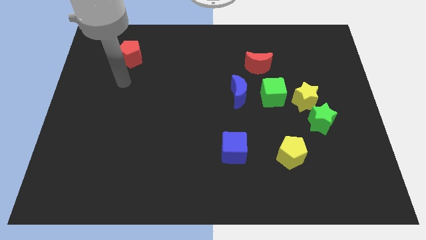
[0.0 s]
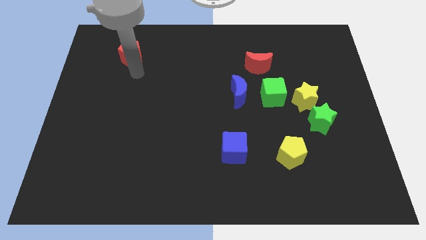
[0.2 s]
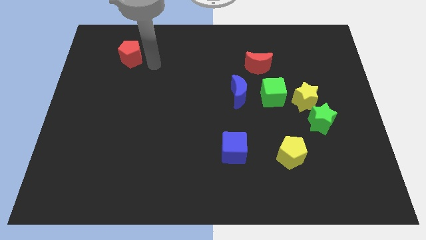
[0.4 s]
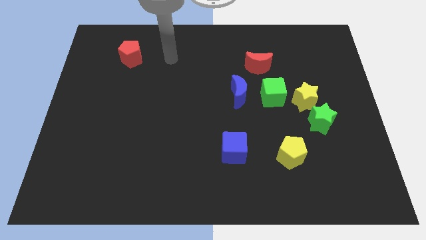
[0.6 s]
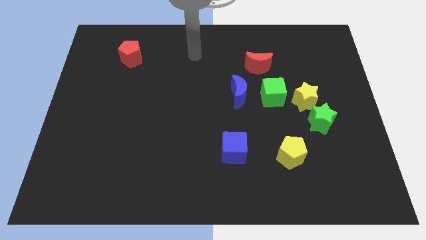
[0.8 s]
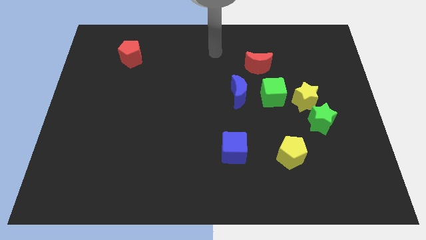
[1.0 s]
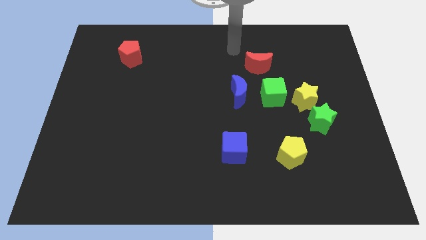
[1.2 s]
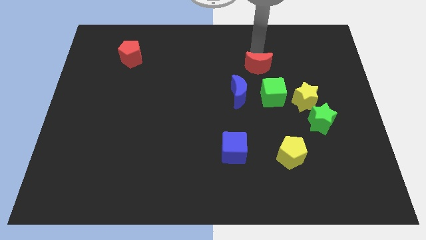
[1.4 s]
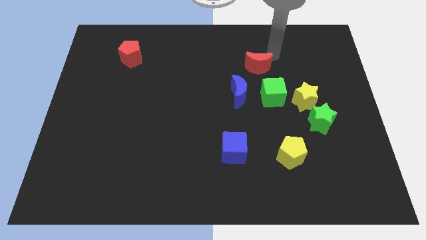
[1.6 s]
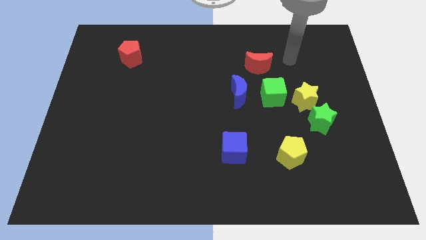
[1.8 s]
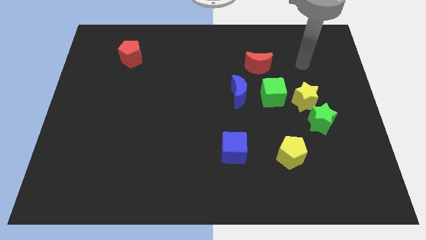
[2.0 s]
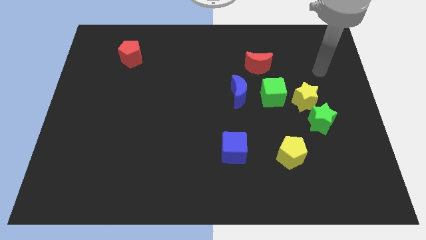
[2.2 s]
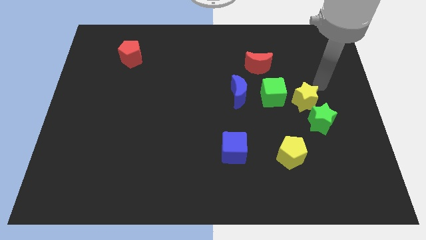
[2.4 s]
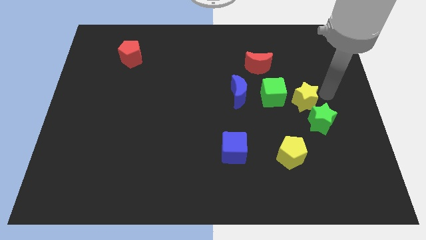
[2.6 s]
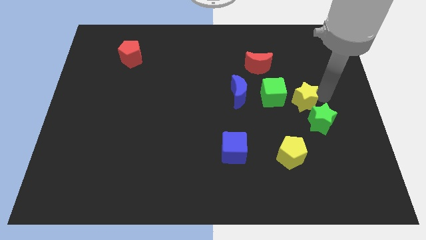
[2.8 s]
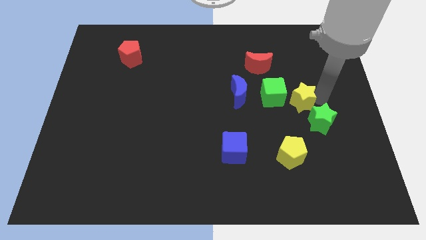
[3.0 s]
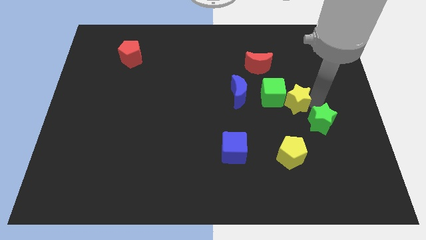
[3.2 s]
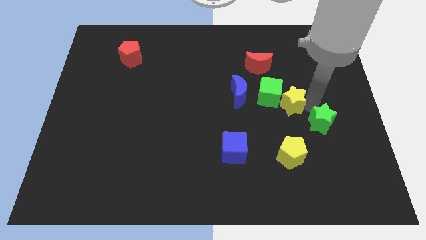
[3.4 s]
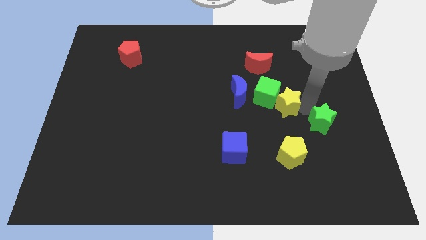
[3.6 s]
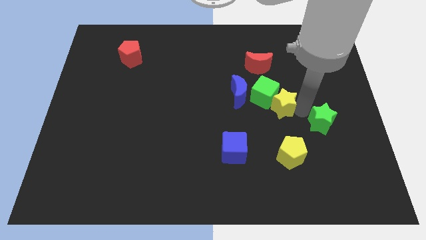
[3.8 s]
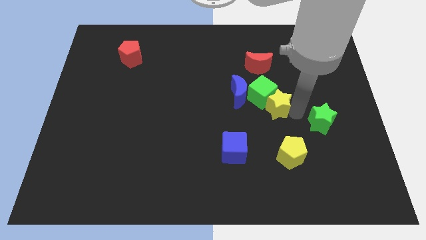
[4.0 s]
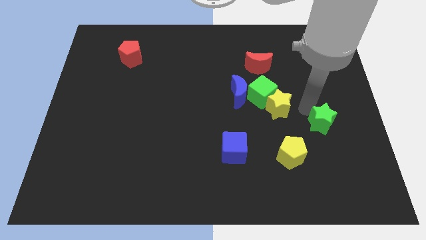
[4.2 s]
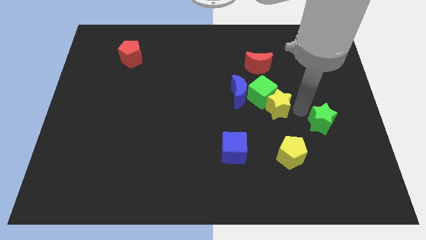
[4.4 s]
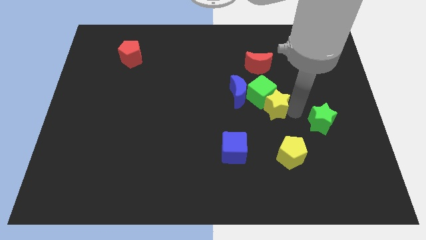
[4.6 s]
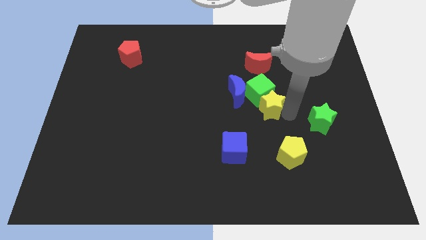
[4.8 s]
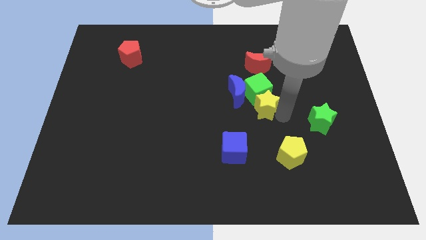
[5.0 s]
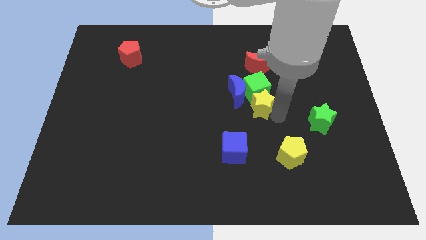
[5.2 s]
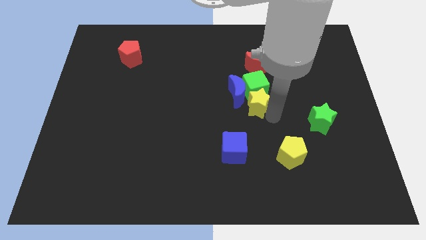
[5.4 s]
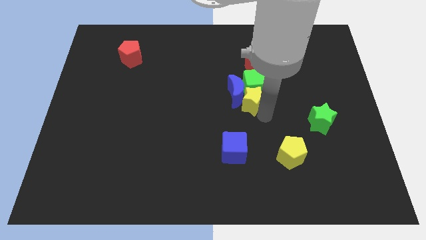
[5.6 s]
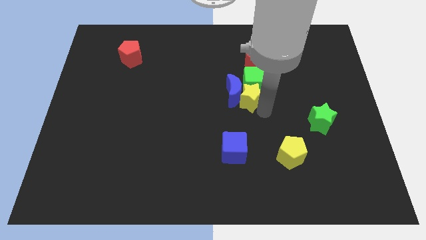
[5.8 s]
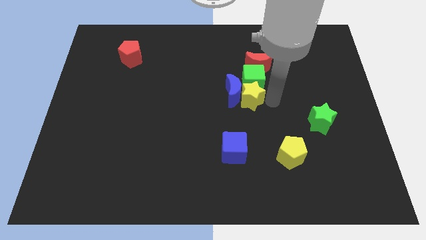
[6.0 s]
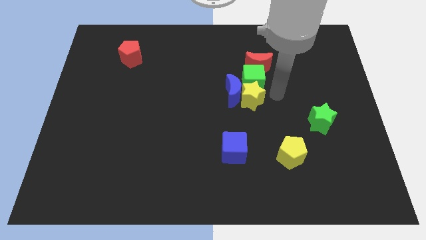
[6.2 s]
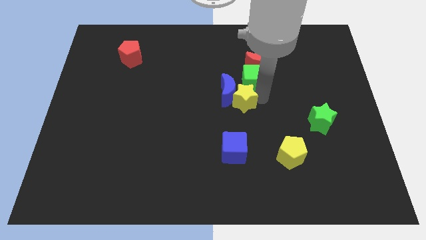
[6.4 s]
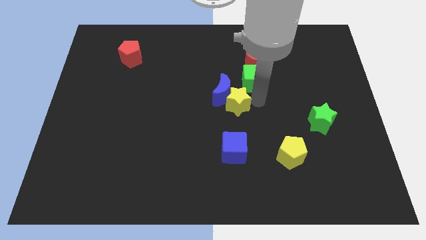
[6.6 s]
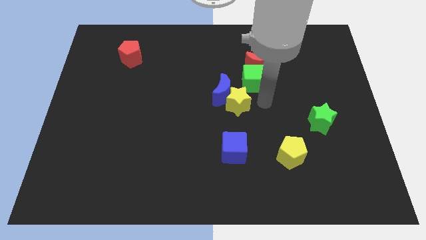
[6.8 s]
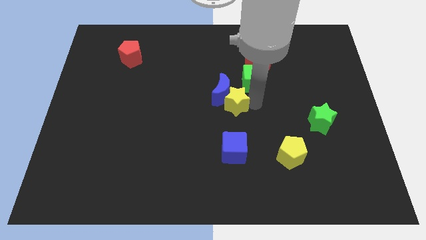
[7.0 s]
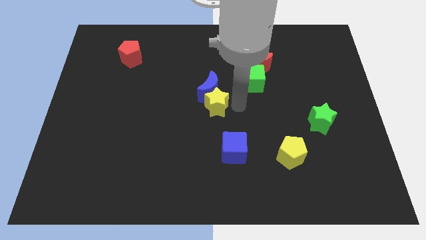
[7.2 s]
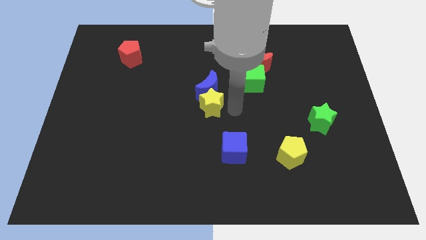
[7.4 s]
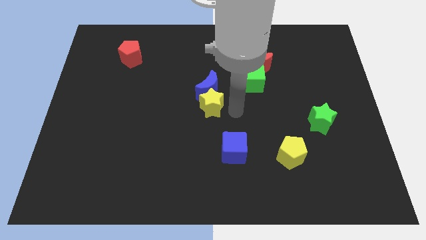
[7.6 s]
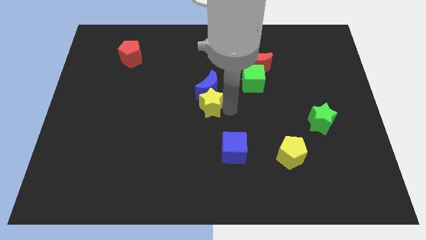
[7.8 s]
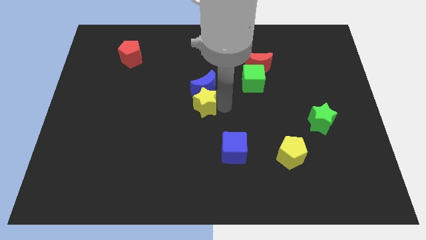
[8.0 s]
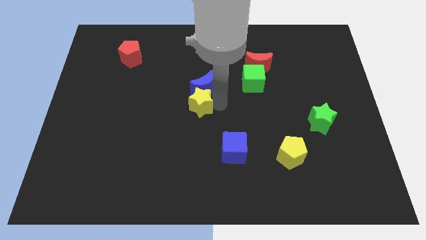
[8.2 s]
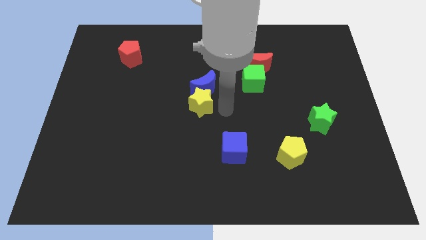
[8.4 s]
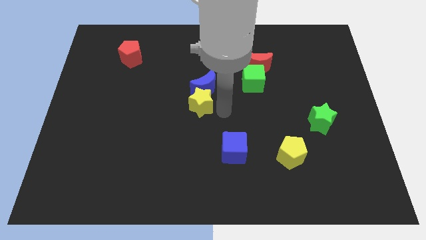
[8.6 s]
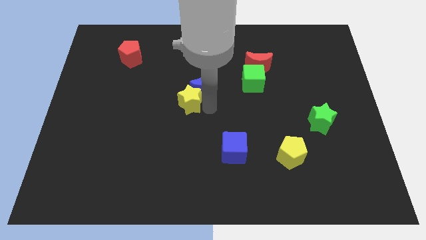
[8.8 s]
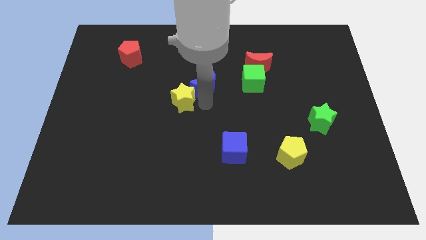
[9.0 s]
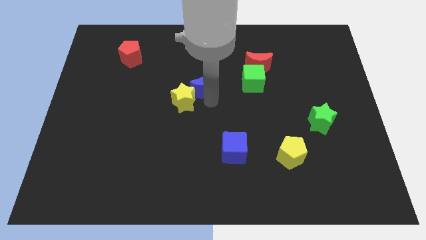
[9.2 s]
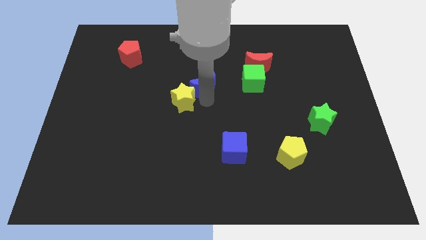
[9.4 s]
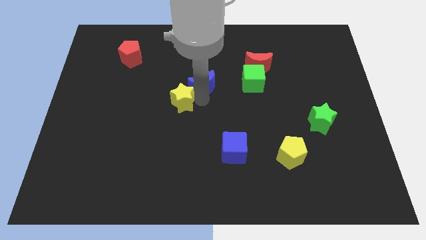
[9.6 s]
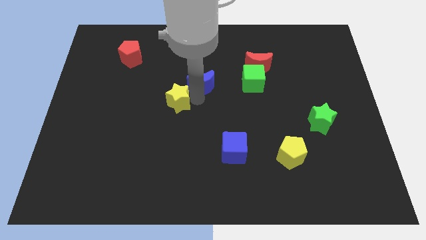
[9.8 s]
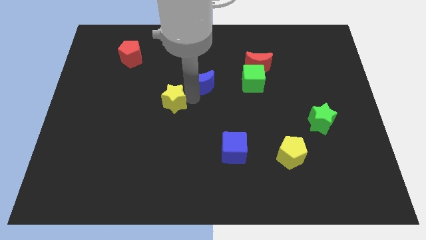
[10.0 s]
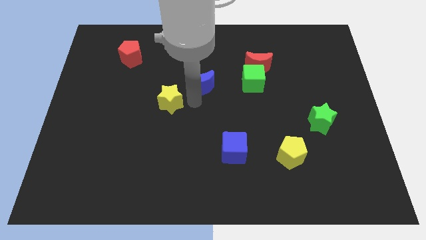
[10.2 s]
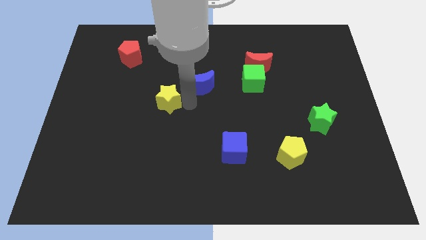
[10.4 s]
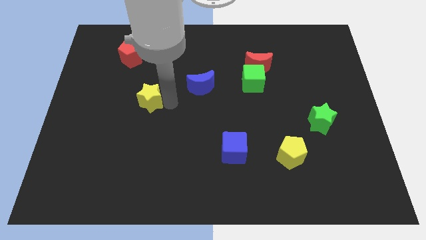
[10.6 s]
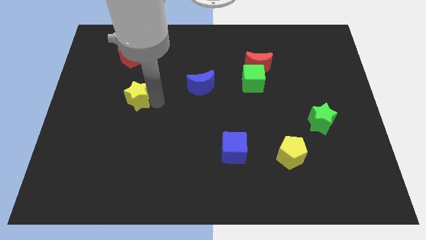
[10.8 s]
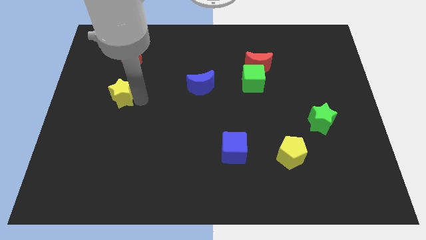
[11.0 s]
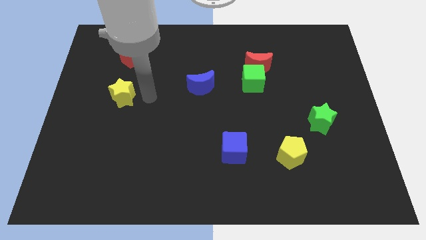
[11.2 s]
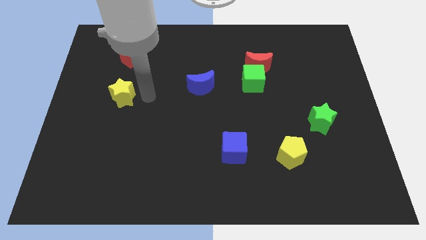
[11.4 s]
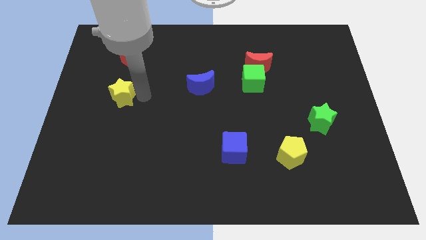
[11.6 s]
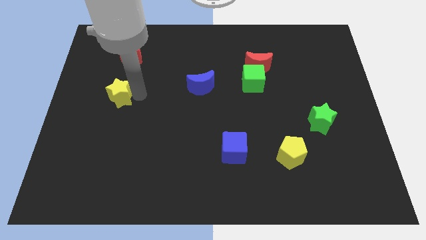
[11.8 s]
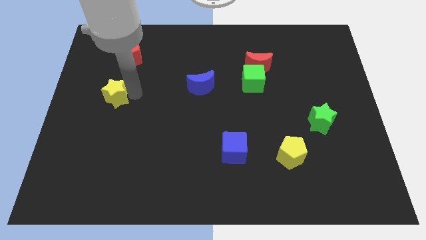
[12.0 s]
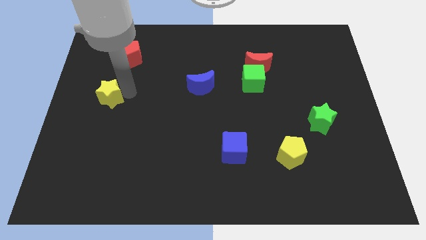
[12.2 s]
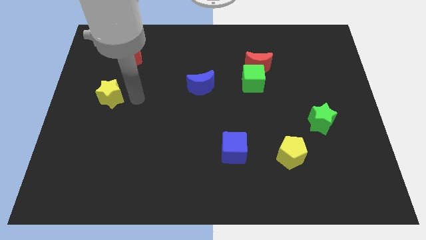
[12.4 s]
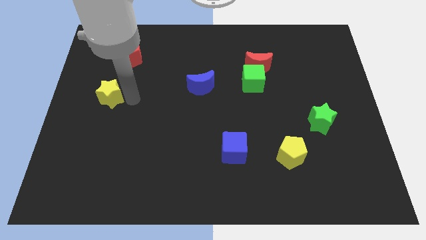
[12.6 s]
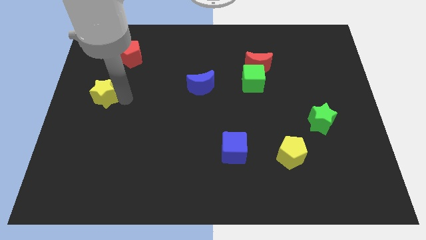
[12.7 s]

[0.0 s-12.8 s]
slide the yellow star to the left side

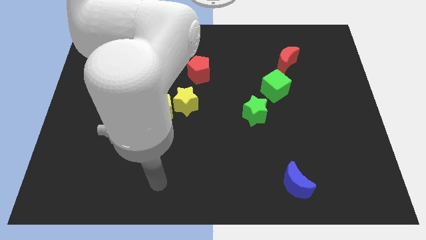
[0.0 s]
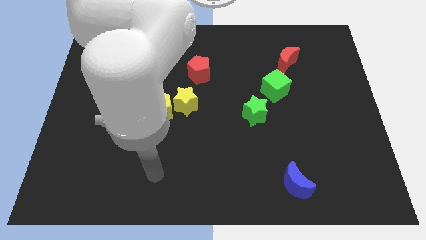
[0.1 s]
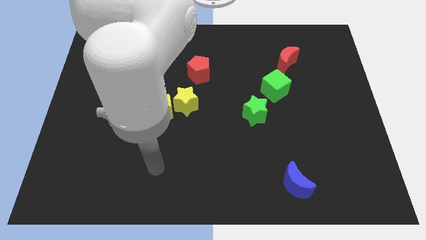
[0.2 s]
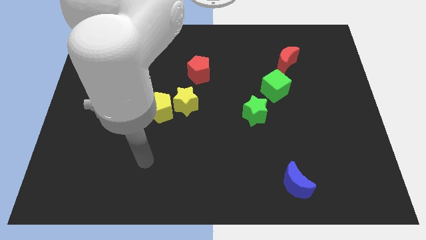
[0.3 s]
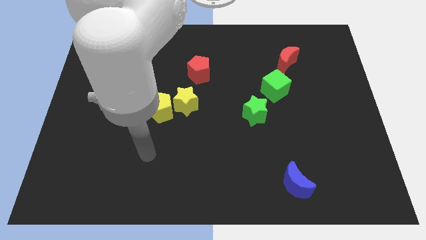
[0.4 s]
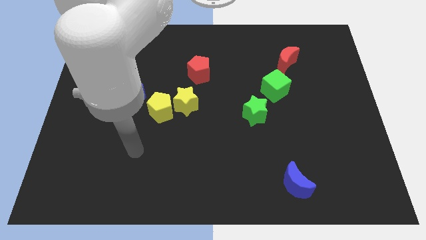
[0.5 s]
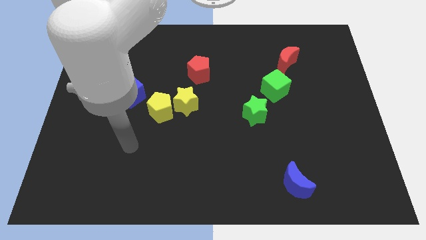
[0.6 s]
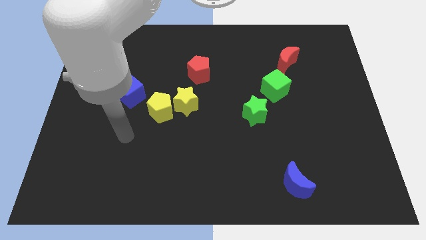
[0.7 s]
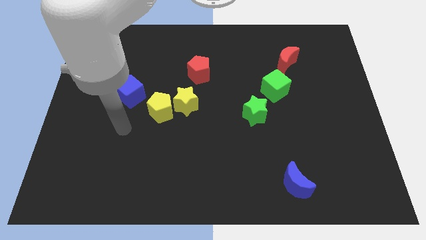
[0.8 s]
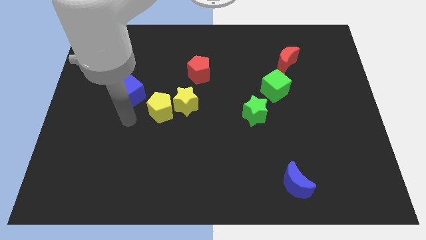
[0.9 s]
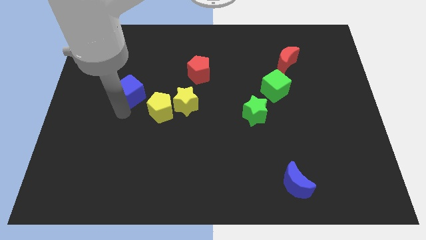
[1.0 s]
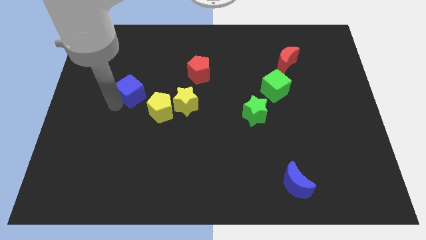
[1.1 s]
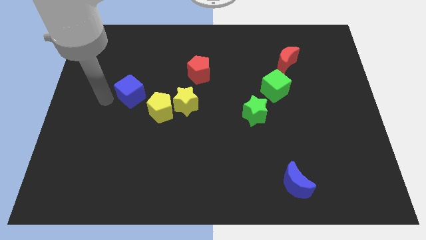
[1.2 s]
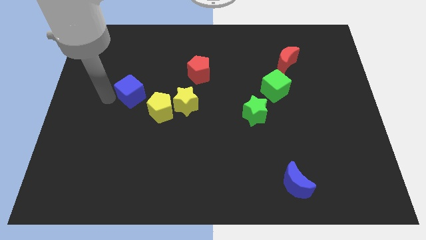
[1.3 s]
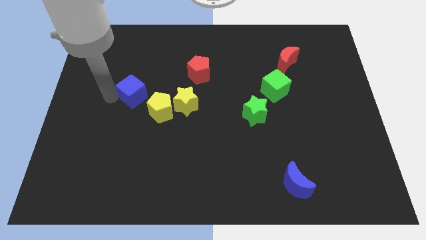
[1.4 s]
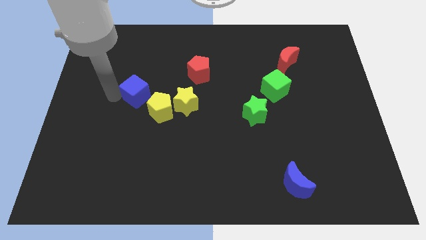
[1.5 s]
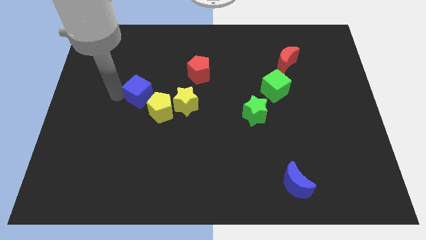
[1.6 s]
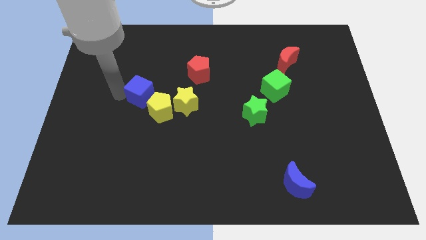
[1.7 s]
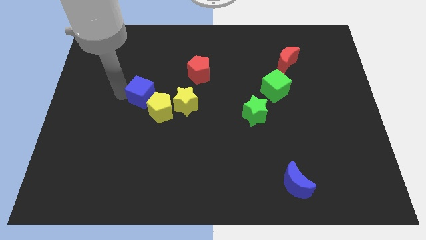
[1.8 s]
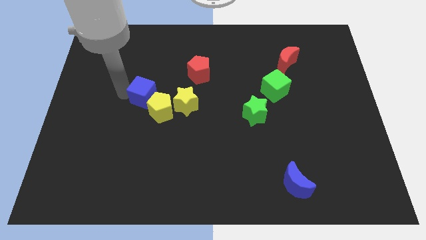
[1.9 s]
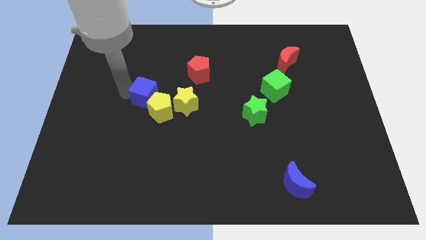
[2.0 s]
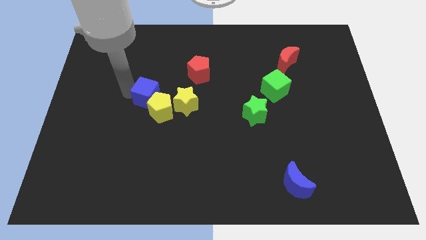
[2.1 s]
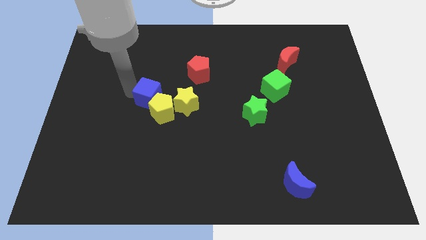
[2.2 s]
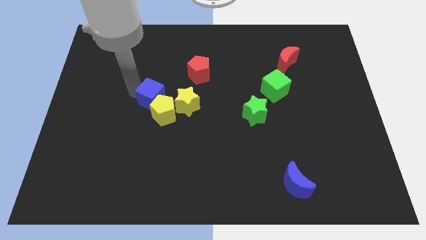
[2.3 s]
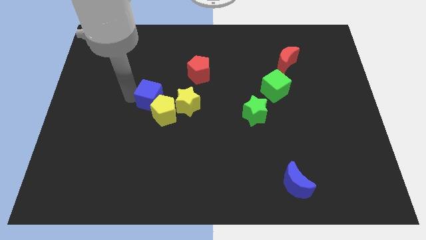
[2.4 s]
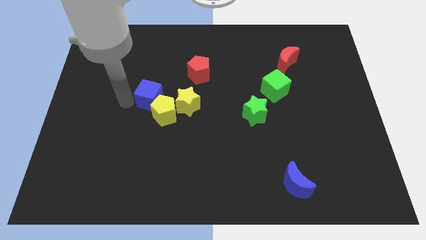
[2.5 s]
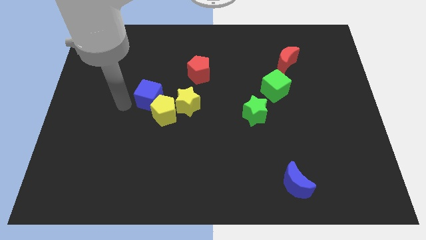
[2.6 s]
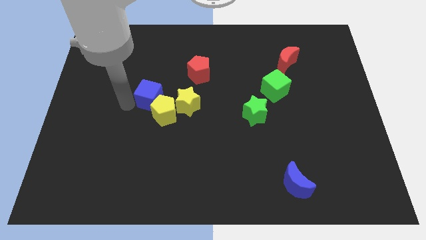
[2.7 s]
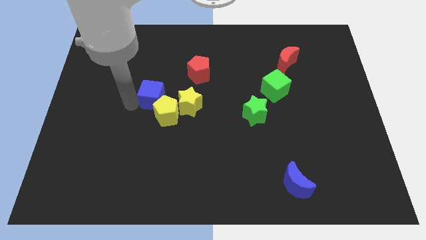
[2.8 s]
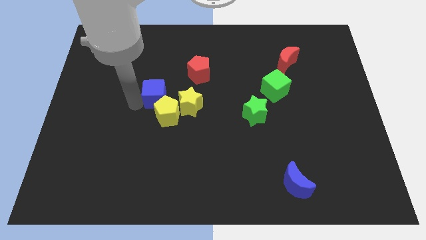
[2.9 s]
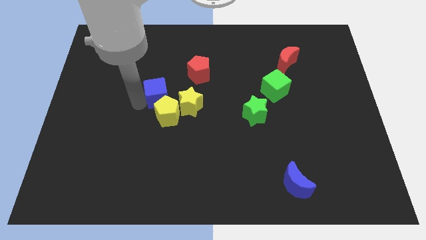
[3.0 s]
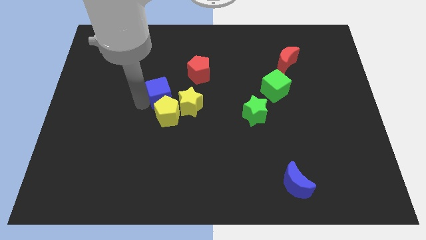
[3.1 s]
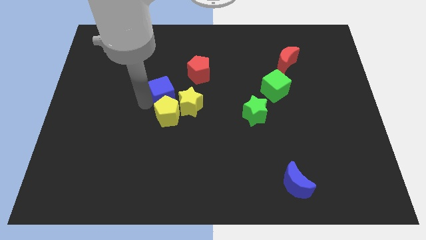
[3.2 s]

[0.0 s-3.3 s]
put the blue cube to the center
